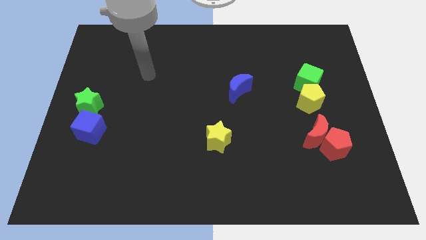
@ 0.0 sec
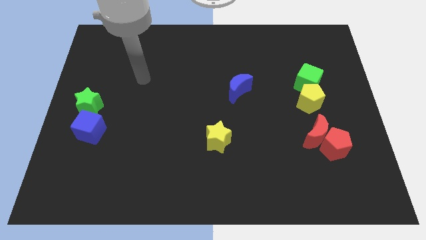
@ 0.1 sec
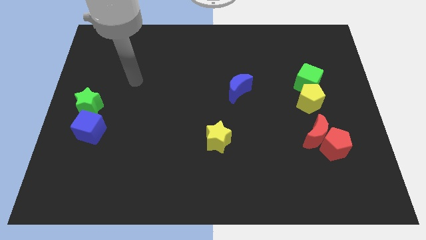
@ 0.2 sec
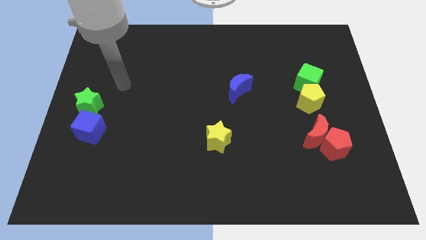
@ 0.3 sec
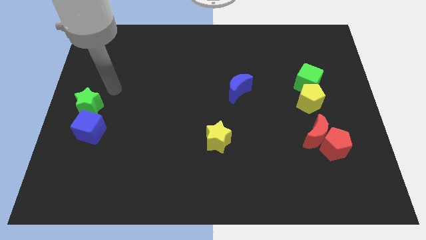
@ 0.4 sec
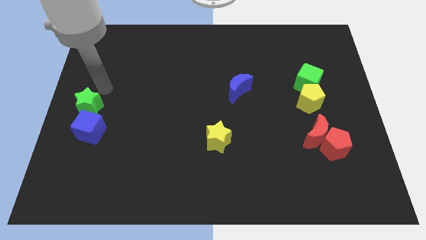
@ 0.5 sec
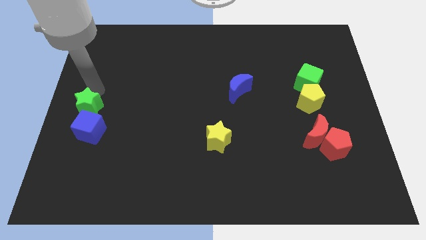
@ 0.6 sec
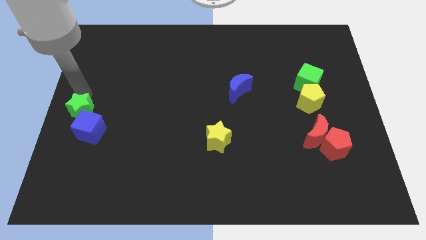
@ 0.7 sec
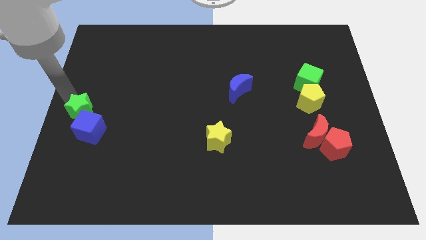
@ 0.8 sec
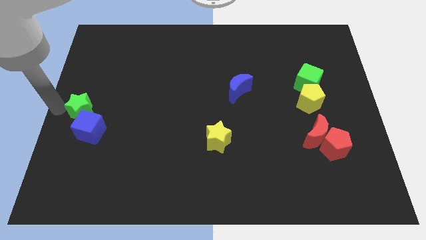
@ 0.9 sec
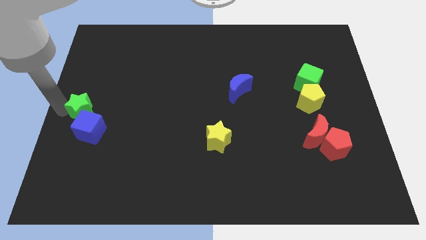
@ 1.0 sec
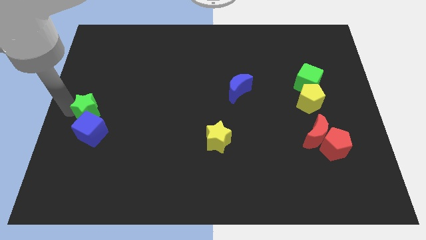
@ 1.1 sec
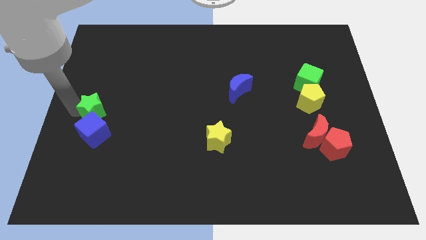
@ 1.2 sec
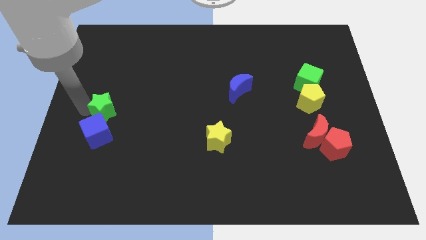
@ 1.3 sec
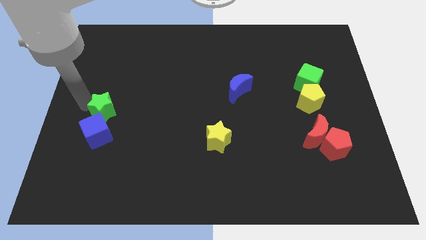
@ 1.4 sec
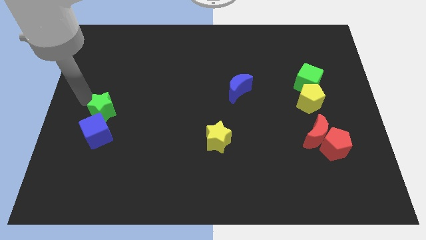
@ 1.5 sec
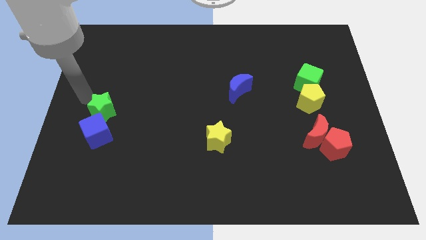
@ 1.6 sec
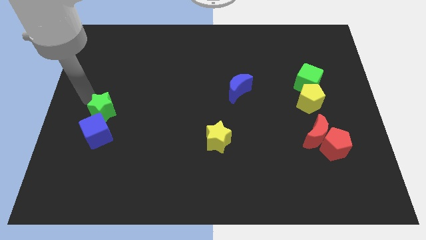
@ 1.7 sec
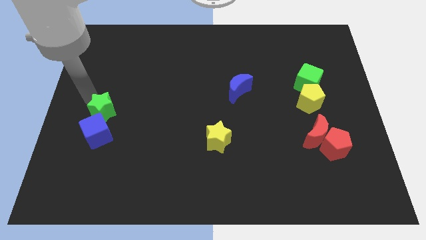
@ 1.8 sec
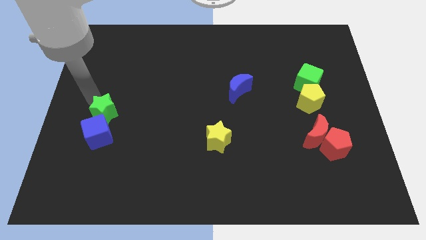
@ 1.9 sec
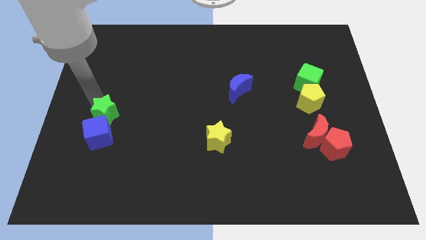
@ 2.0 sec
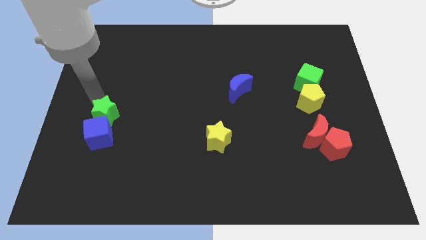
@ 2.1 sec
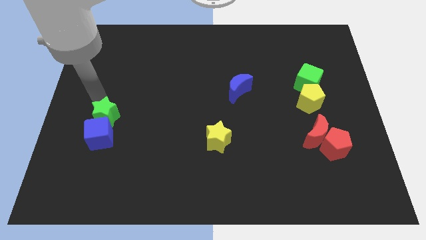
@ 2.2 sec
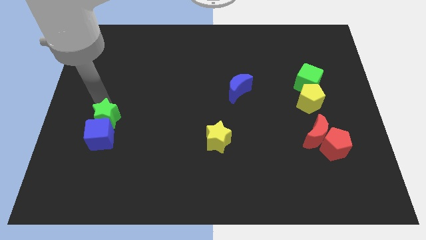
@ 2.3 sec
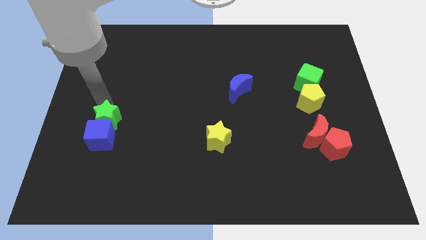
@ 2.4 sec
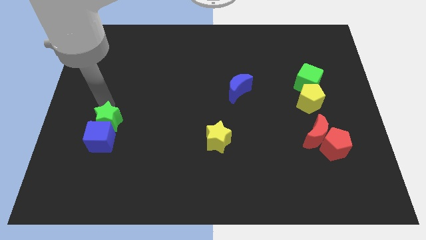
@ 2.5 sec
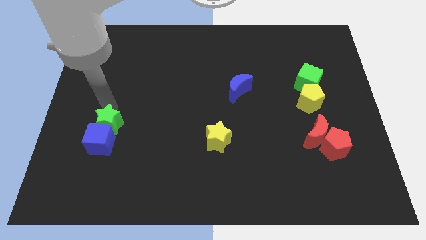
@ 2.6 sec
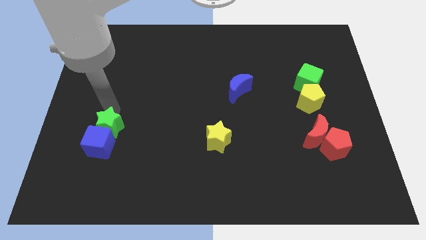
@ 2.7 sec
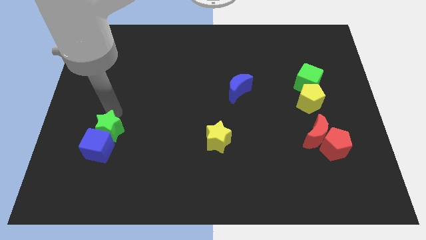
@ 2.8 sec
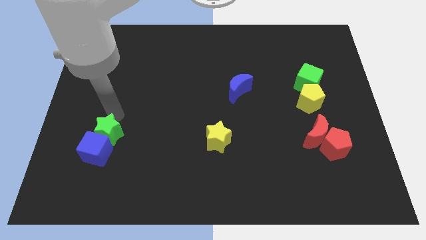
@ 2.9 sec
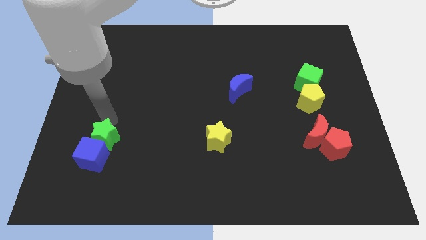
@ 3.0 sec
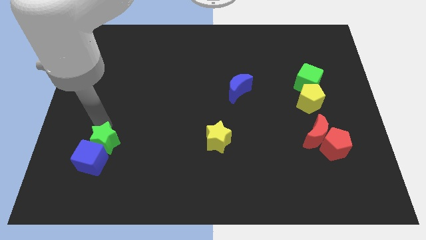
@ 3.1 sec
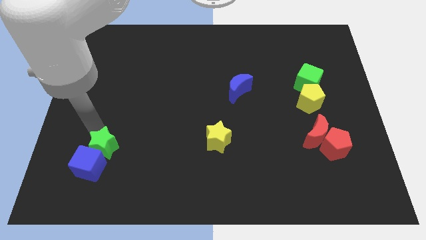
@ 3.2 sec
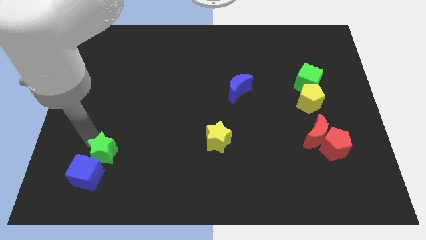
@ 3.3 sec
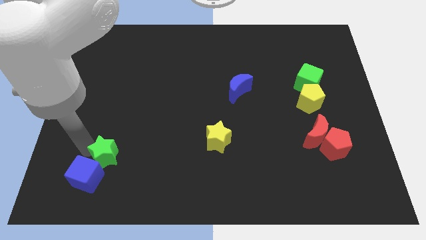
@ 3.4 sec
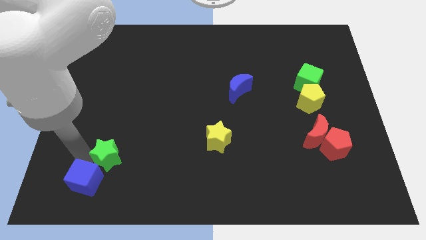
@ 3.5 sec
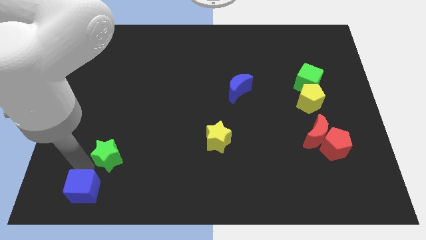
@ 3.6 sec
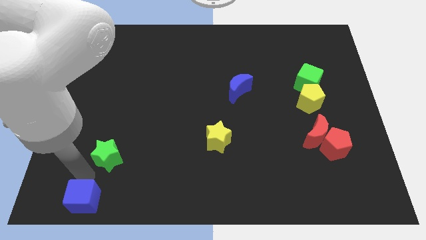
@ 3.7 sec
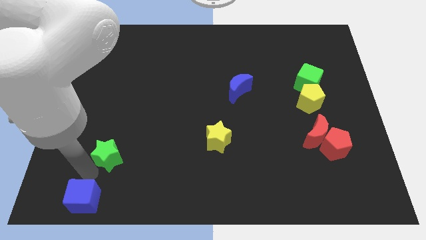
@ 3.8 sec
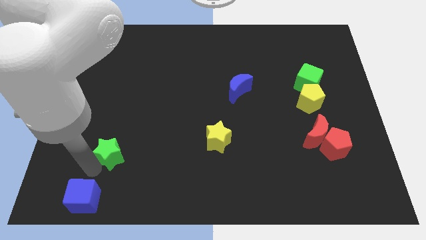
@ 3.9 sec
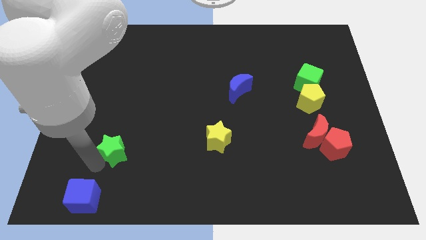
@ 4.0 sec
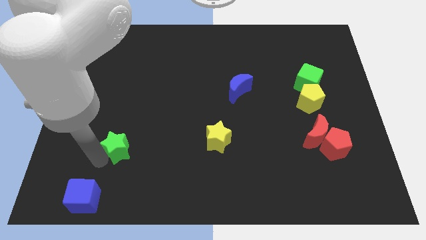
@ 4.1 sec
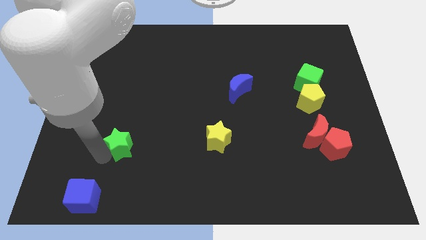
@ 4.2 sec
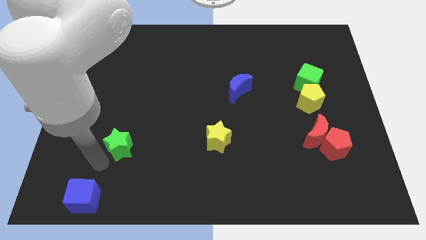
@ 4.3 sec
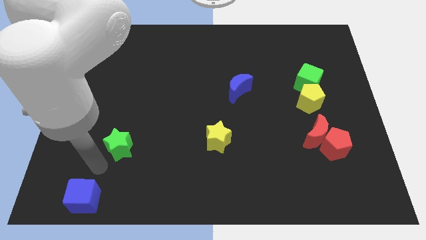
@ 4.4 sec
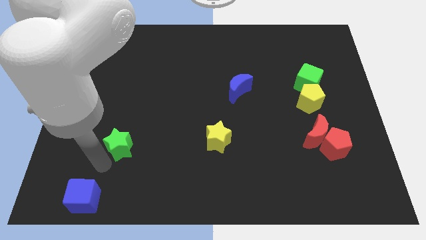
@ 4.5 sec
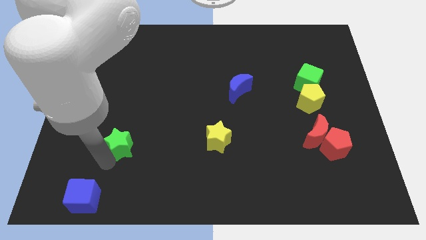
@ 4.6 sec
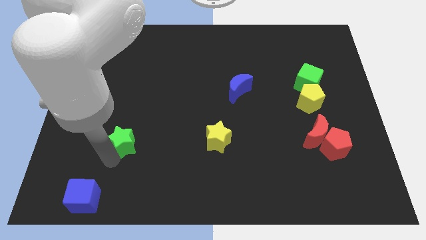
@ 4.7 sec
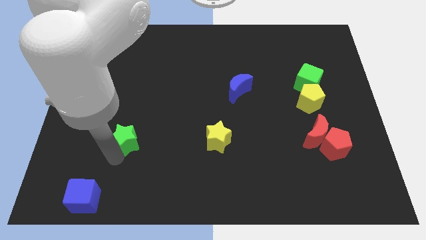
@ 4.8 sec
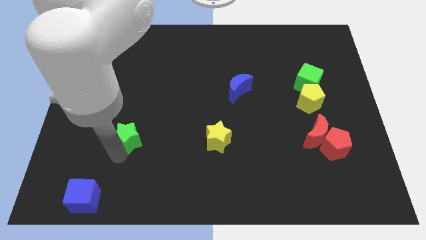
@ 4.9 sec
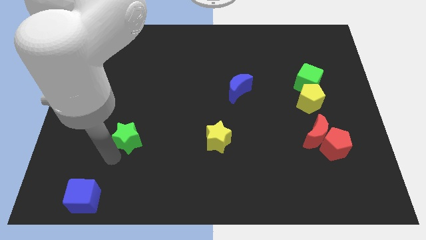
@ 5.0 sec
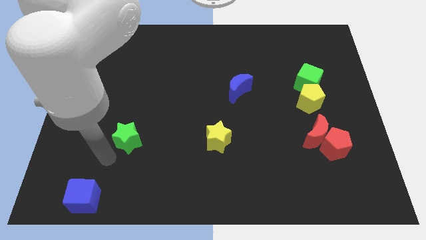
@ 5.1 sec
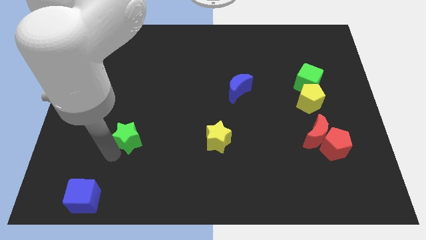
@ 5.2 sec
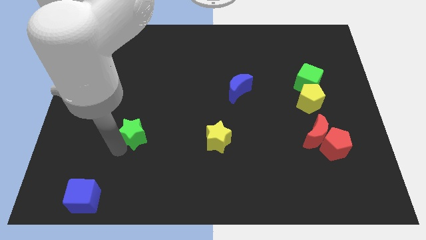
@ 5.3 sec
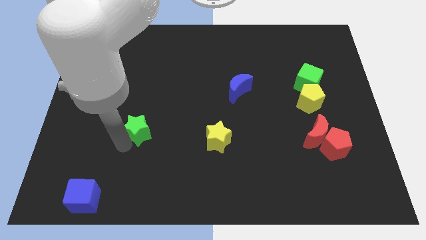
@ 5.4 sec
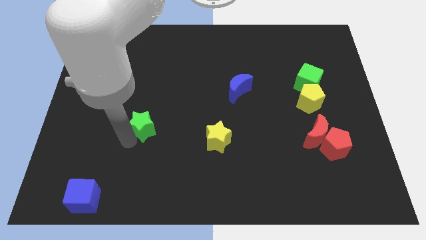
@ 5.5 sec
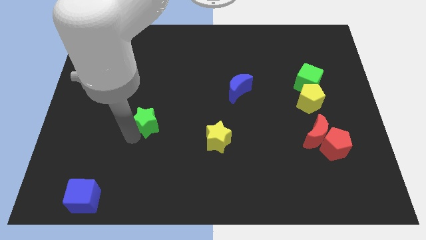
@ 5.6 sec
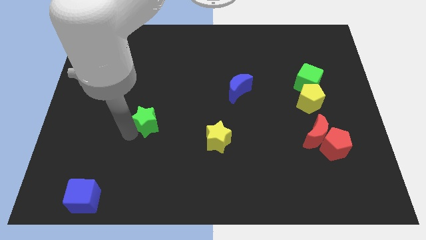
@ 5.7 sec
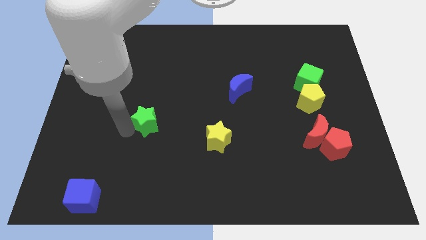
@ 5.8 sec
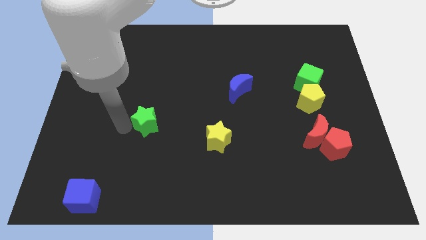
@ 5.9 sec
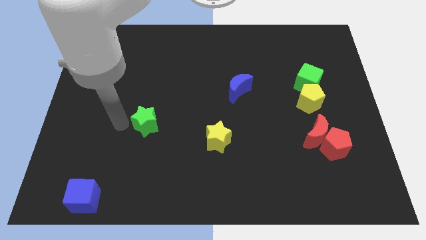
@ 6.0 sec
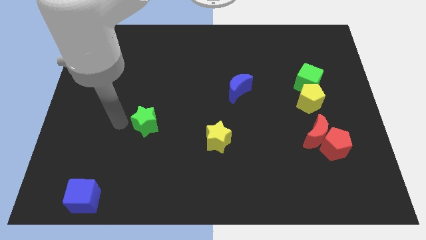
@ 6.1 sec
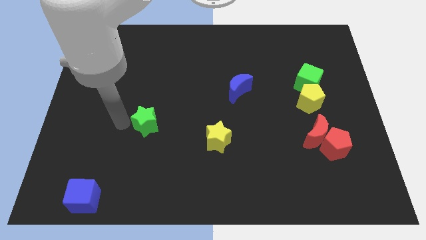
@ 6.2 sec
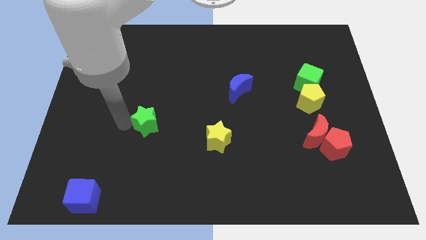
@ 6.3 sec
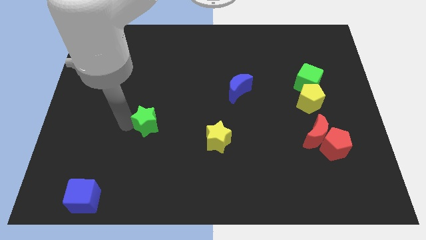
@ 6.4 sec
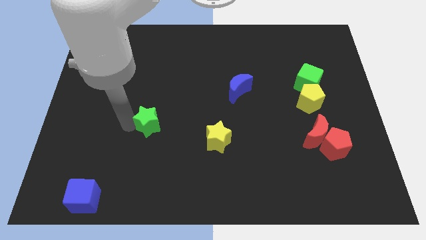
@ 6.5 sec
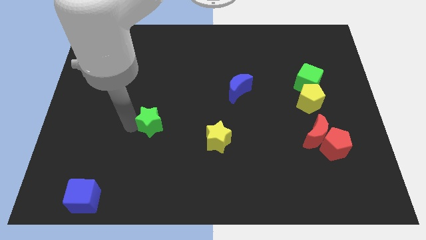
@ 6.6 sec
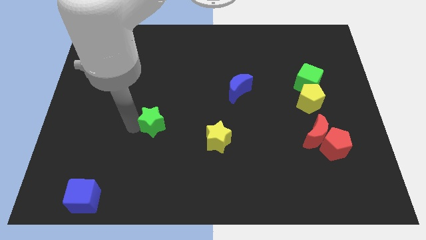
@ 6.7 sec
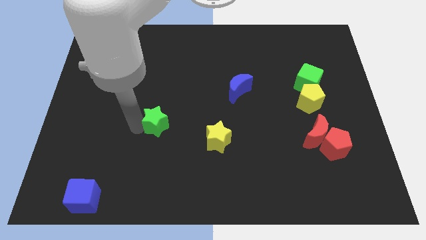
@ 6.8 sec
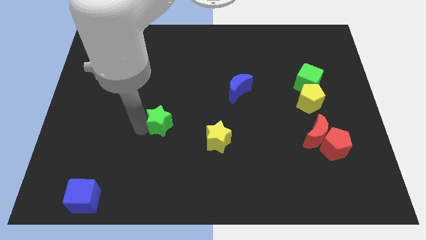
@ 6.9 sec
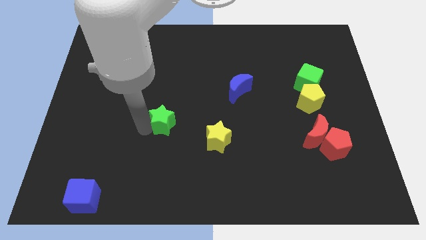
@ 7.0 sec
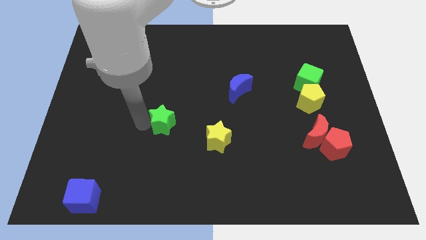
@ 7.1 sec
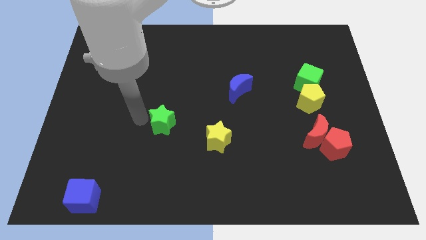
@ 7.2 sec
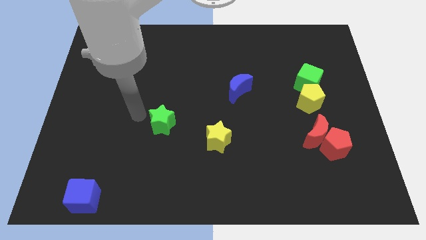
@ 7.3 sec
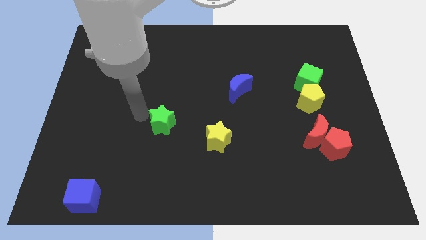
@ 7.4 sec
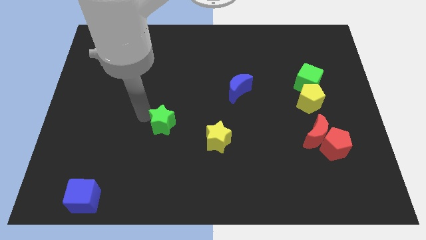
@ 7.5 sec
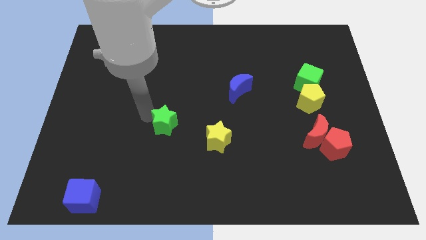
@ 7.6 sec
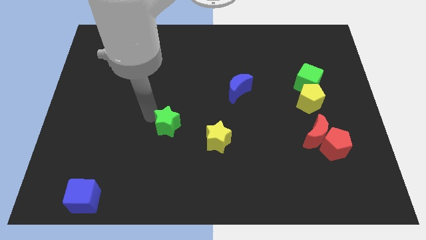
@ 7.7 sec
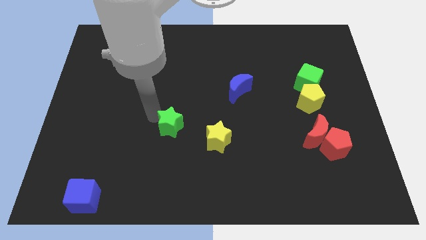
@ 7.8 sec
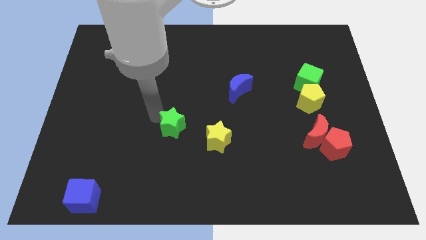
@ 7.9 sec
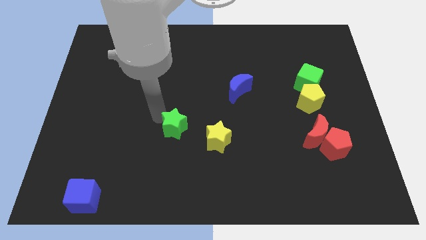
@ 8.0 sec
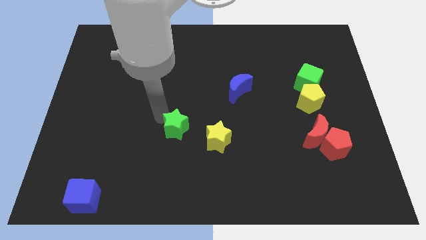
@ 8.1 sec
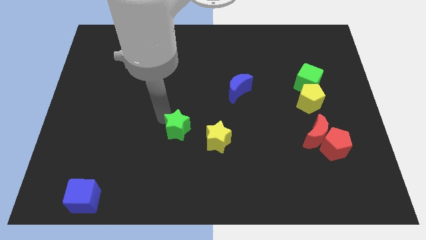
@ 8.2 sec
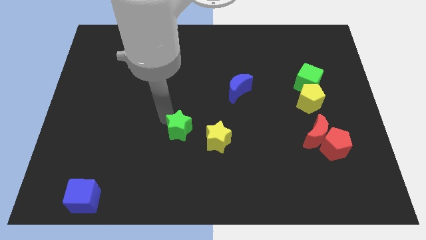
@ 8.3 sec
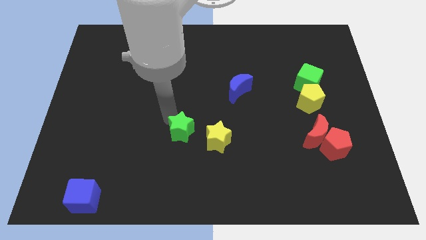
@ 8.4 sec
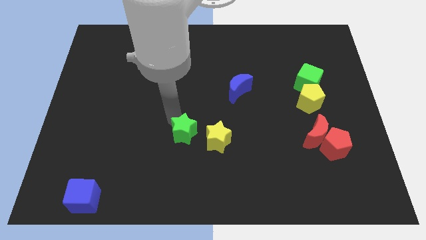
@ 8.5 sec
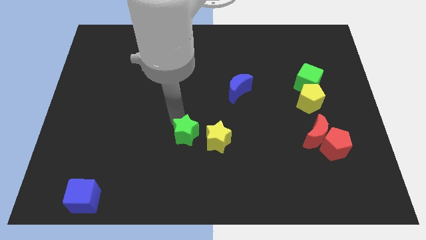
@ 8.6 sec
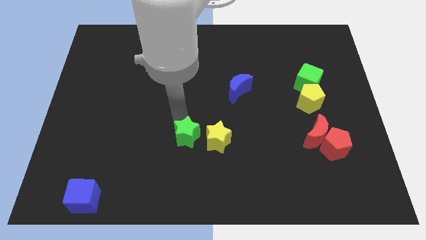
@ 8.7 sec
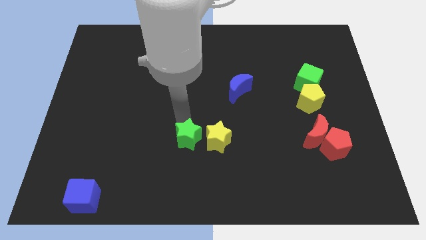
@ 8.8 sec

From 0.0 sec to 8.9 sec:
put the green star towards the yellow star
